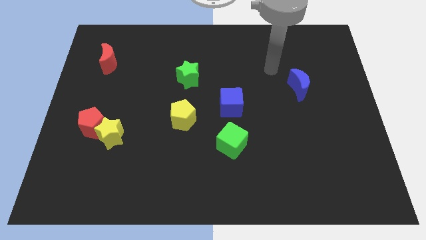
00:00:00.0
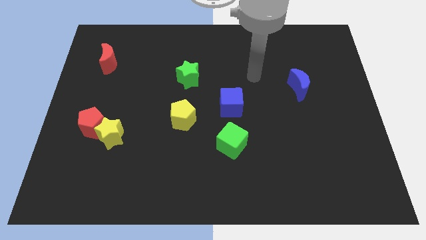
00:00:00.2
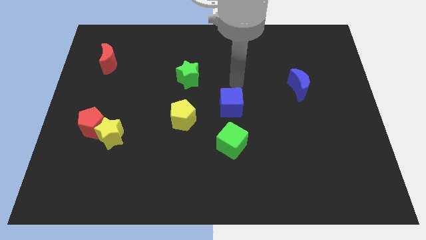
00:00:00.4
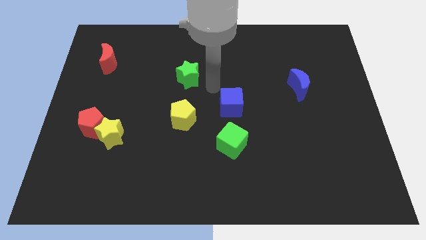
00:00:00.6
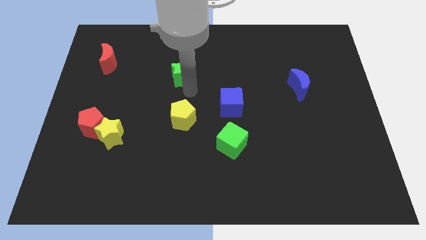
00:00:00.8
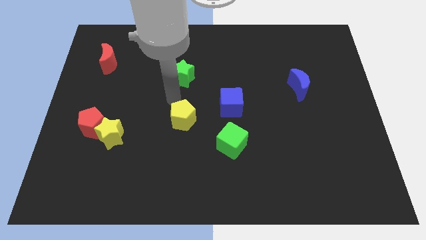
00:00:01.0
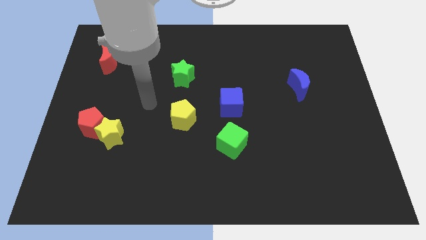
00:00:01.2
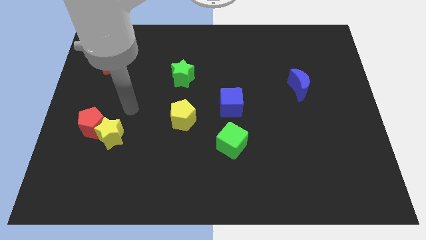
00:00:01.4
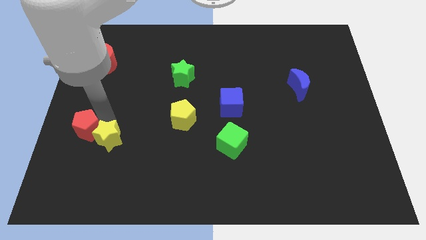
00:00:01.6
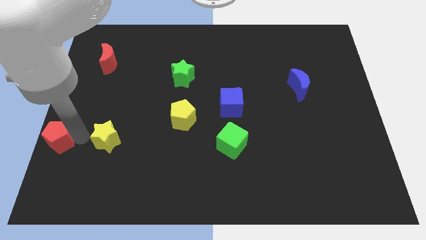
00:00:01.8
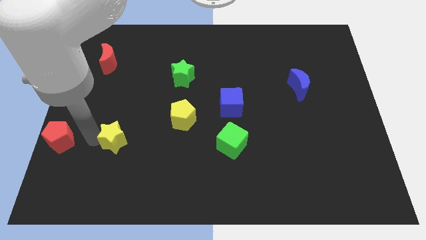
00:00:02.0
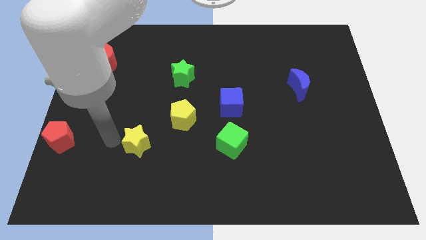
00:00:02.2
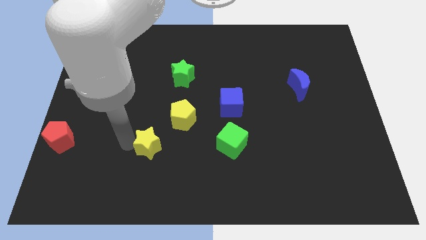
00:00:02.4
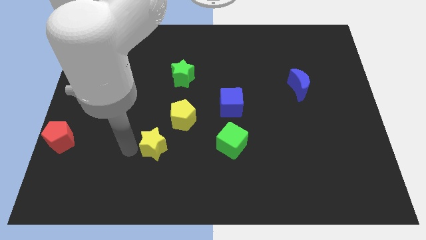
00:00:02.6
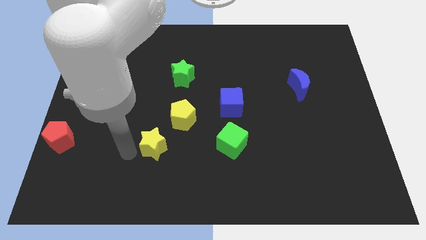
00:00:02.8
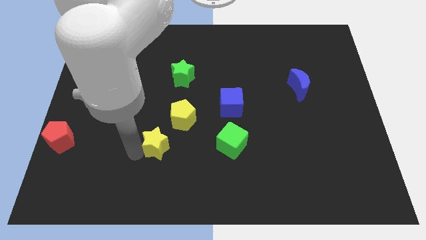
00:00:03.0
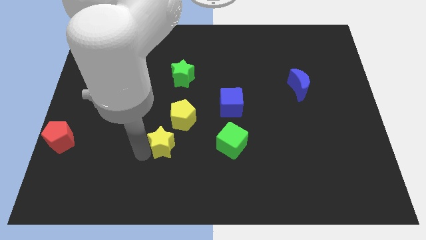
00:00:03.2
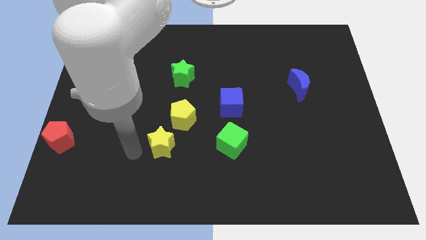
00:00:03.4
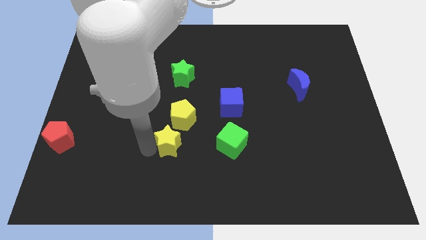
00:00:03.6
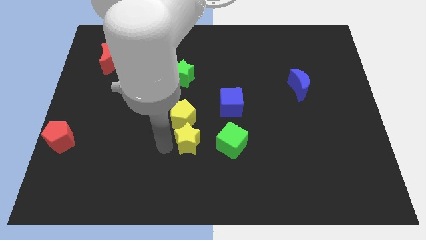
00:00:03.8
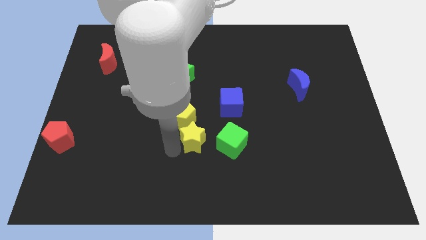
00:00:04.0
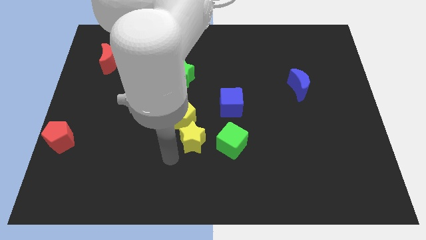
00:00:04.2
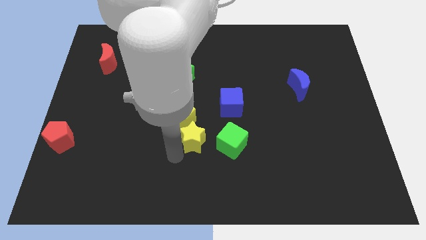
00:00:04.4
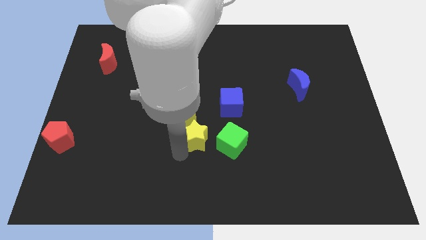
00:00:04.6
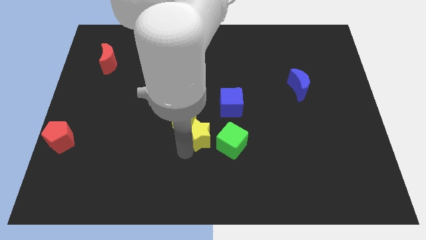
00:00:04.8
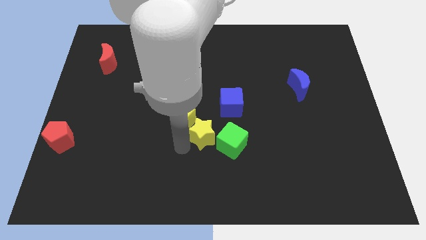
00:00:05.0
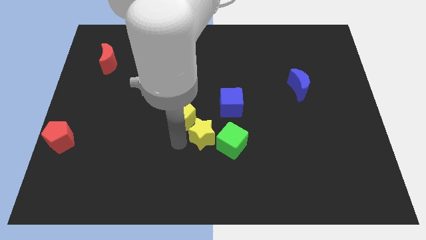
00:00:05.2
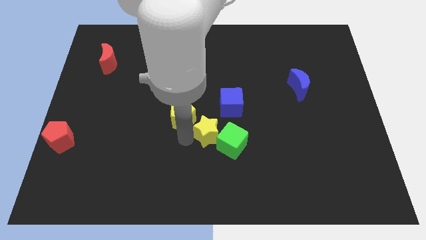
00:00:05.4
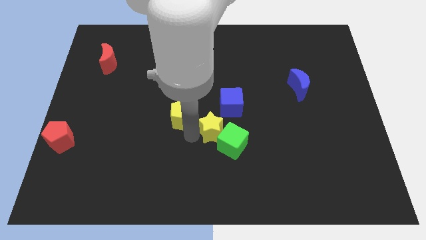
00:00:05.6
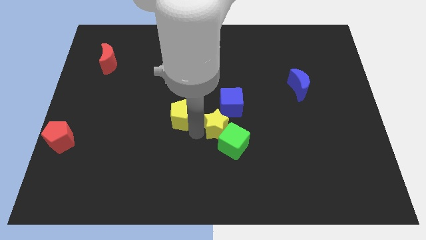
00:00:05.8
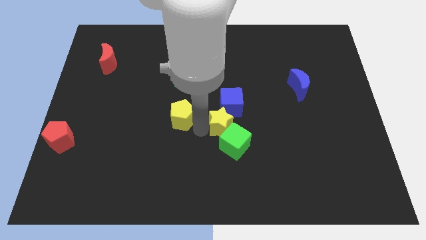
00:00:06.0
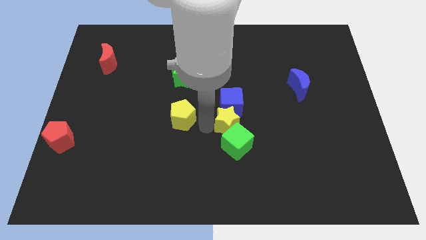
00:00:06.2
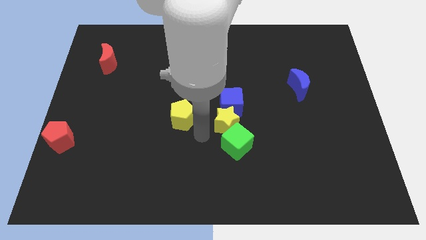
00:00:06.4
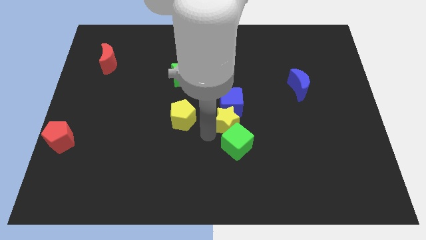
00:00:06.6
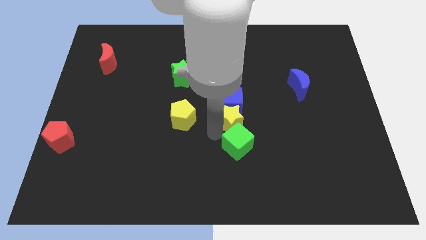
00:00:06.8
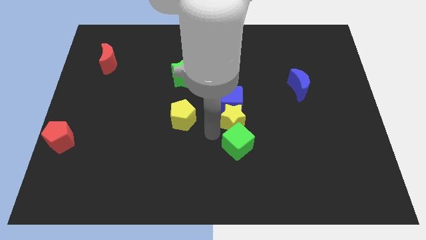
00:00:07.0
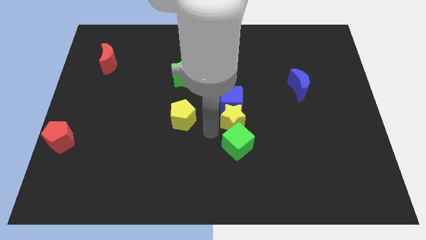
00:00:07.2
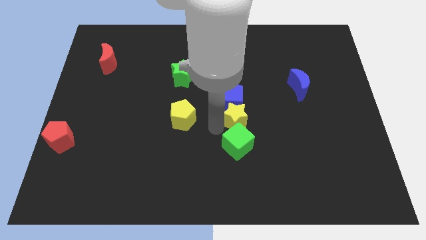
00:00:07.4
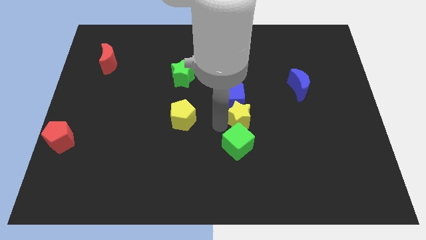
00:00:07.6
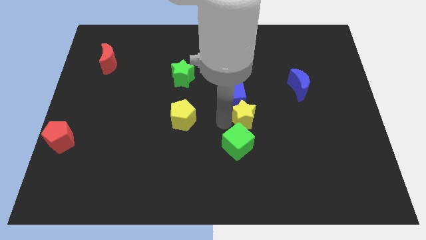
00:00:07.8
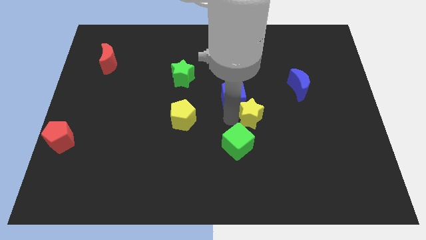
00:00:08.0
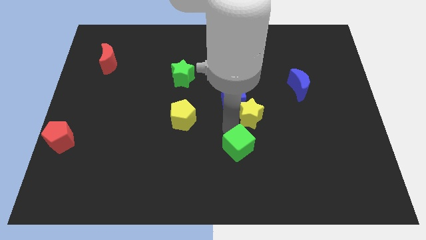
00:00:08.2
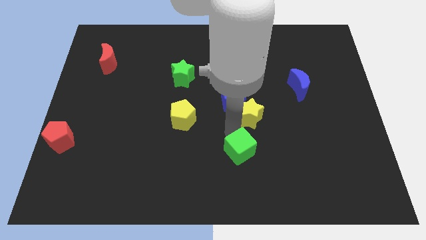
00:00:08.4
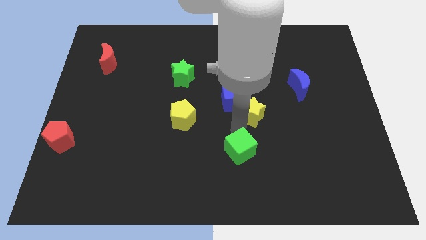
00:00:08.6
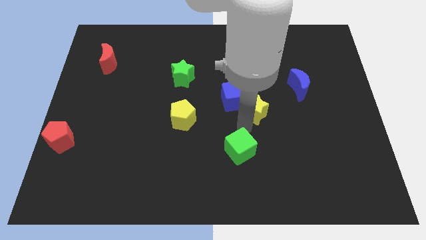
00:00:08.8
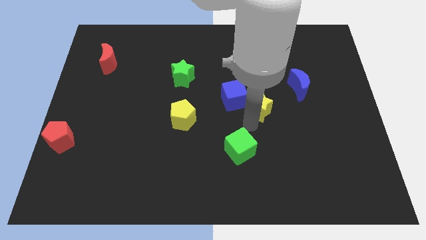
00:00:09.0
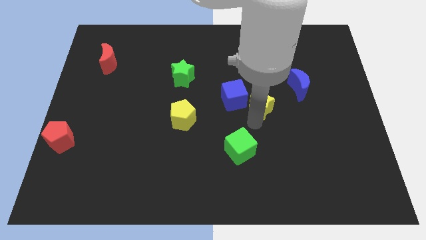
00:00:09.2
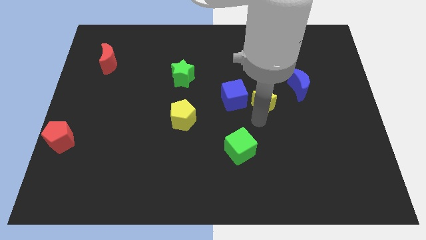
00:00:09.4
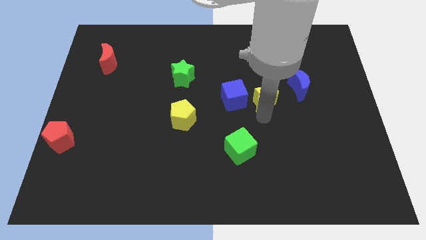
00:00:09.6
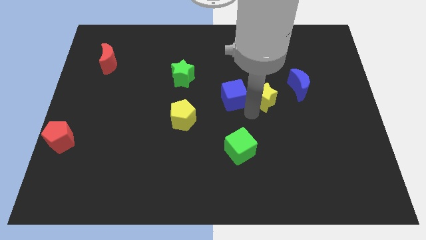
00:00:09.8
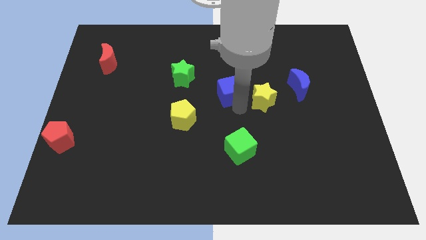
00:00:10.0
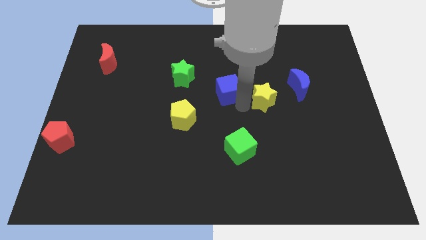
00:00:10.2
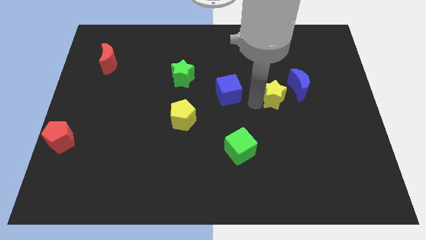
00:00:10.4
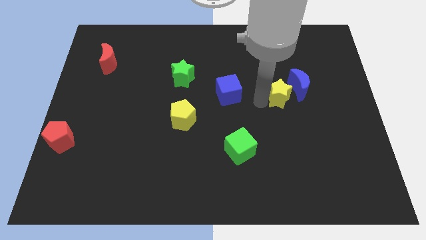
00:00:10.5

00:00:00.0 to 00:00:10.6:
slide the yellow star to the blue moon

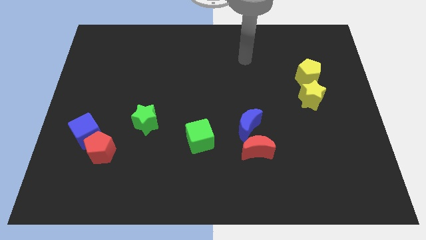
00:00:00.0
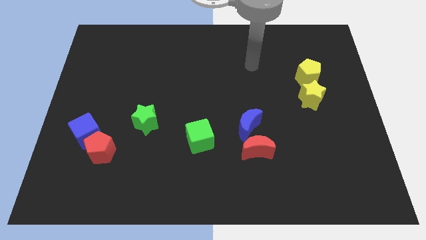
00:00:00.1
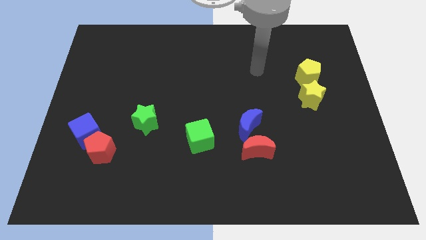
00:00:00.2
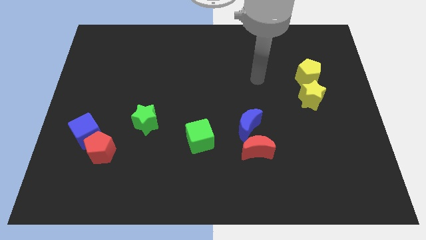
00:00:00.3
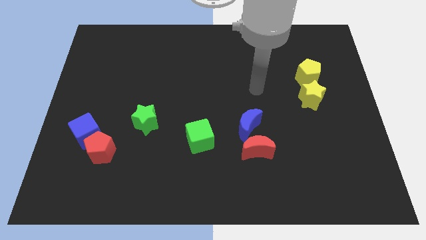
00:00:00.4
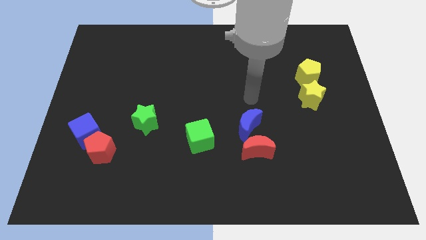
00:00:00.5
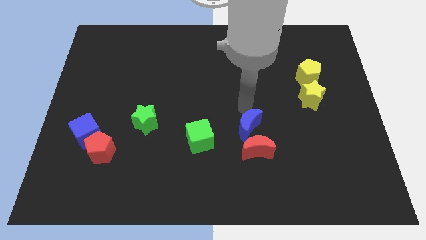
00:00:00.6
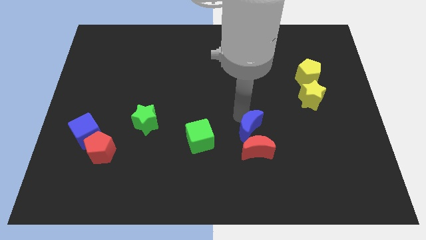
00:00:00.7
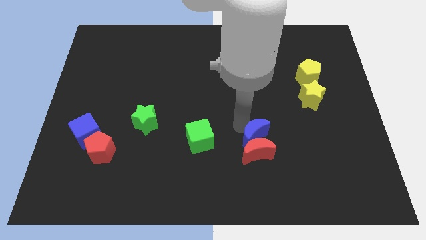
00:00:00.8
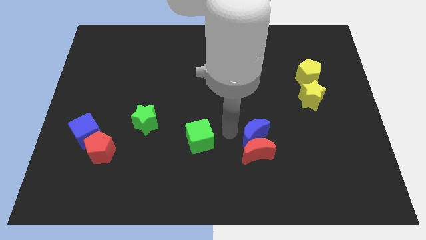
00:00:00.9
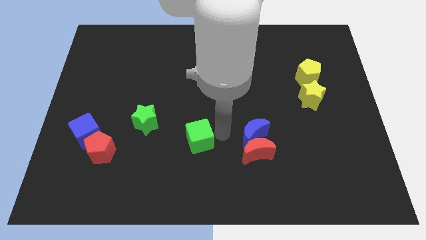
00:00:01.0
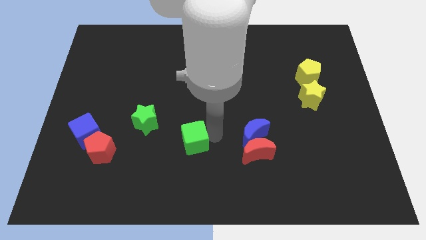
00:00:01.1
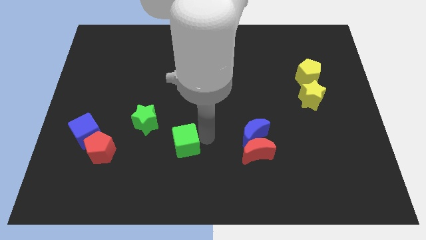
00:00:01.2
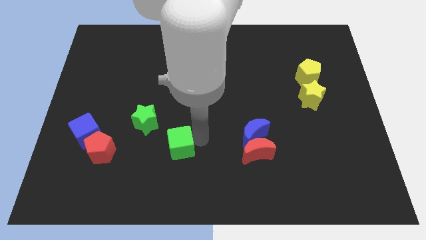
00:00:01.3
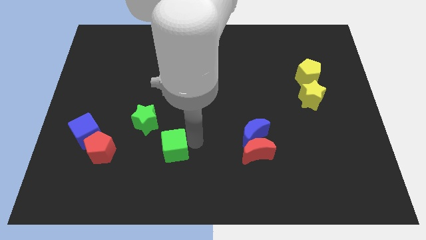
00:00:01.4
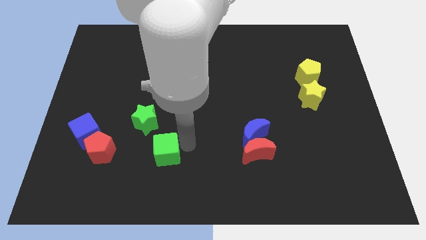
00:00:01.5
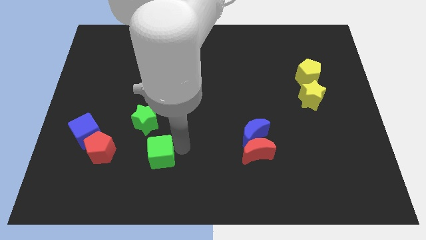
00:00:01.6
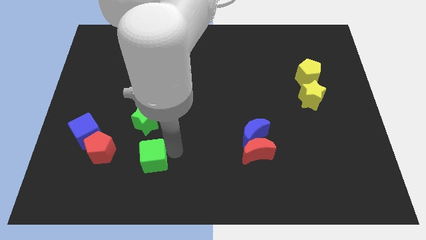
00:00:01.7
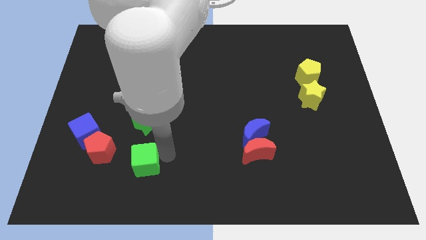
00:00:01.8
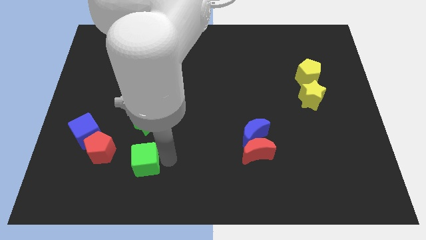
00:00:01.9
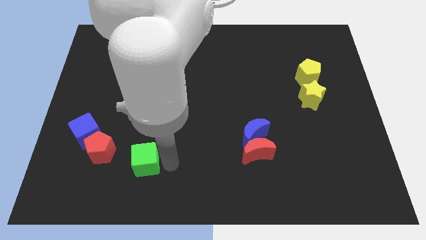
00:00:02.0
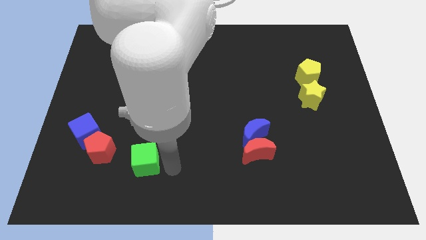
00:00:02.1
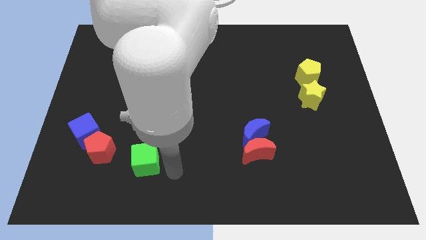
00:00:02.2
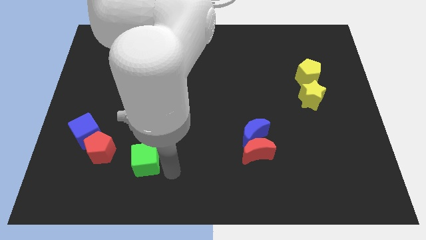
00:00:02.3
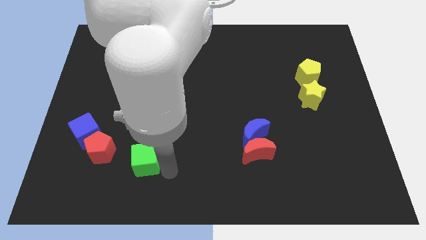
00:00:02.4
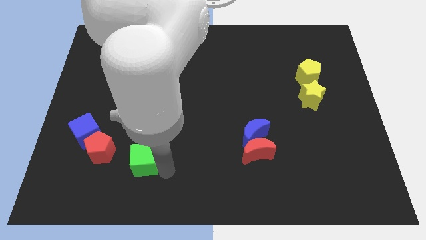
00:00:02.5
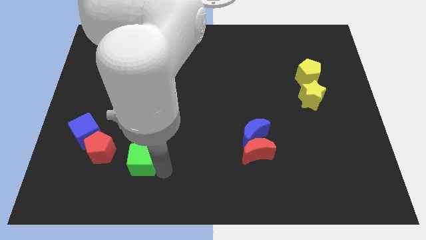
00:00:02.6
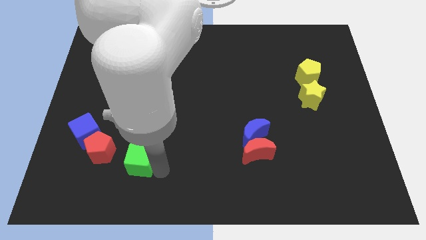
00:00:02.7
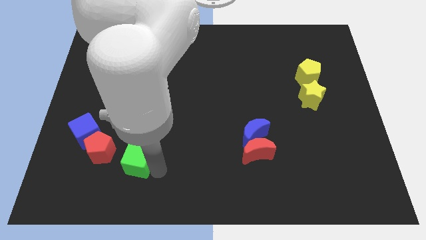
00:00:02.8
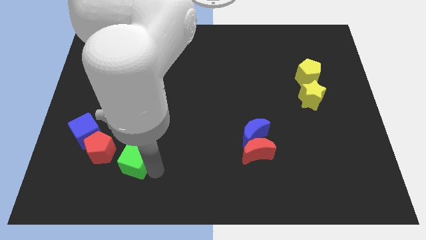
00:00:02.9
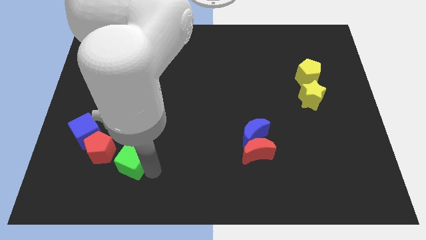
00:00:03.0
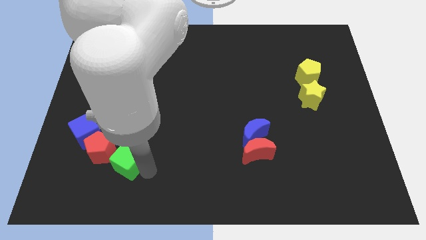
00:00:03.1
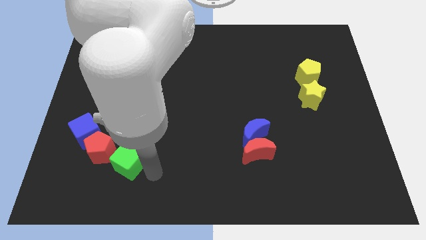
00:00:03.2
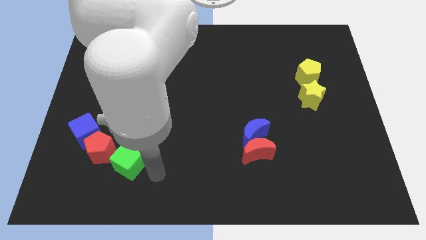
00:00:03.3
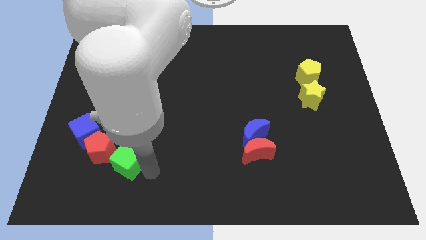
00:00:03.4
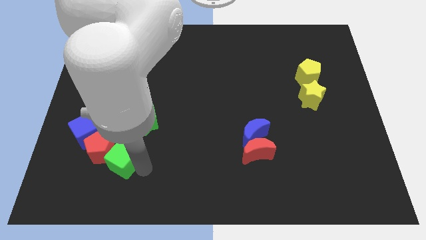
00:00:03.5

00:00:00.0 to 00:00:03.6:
push the green cube to the red pentagon
